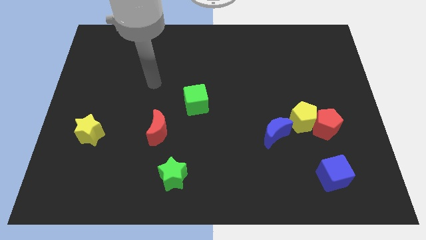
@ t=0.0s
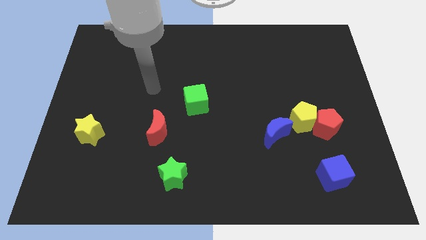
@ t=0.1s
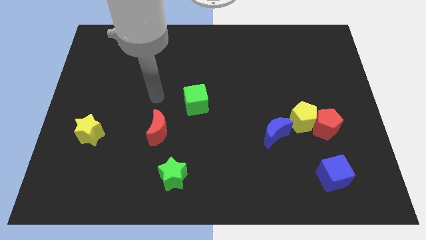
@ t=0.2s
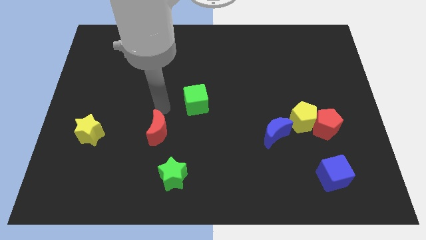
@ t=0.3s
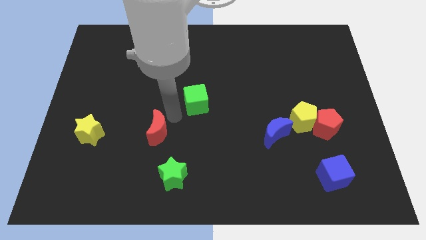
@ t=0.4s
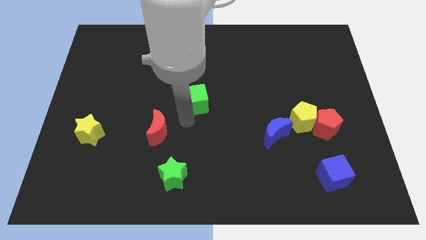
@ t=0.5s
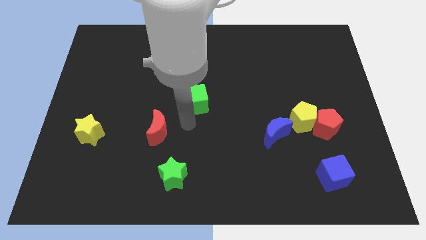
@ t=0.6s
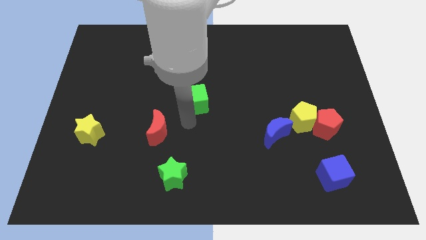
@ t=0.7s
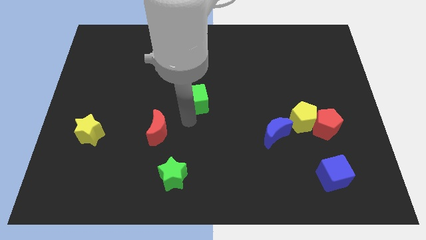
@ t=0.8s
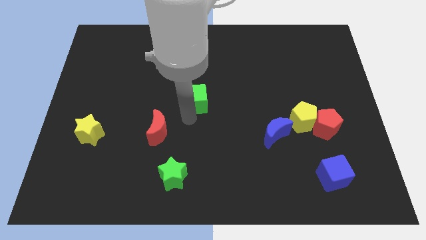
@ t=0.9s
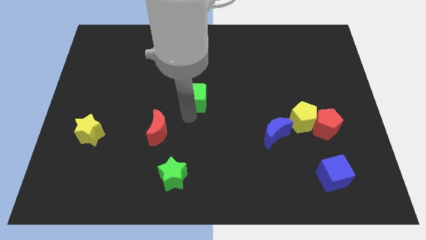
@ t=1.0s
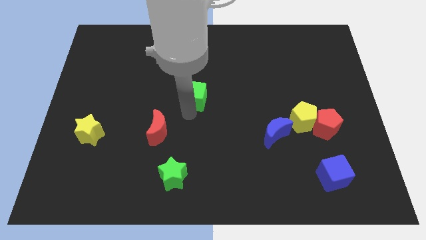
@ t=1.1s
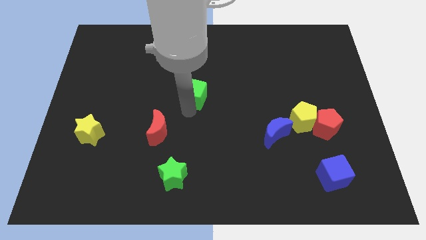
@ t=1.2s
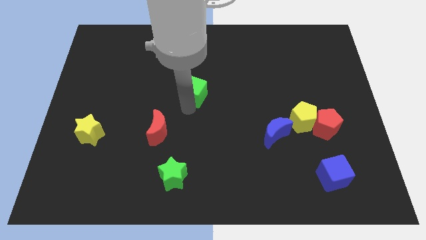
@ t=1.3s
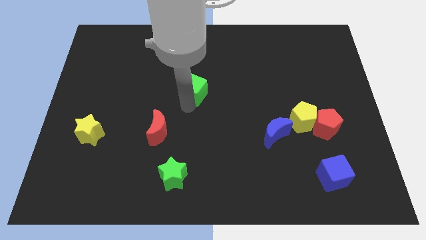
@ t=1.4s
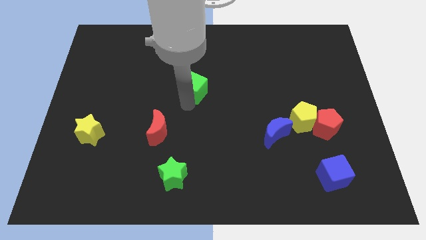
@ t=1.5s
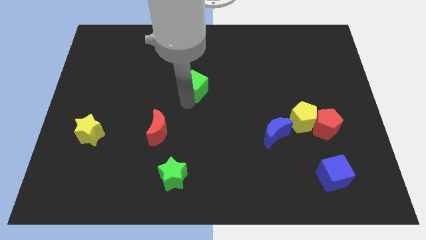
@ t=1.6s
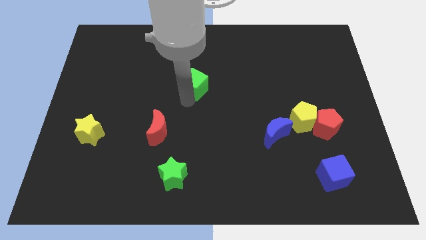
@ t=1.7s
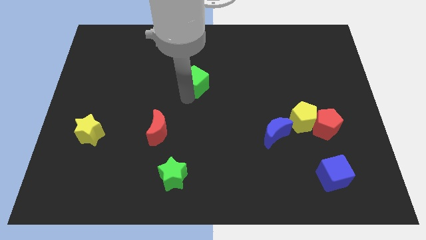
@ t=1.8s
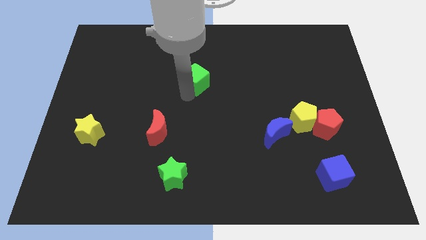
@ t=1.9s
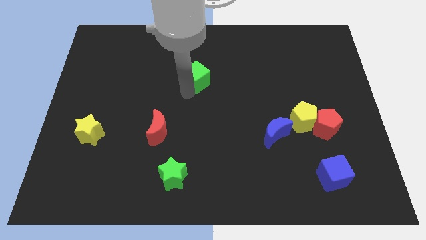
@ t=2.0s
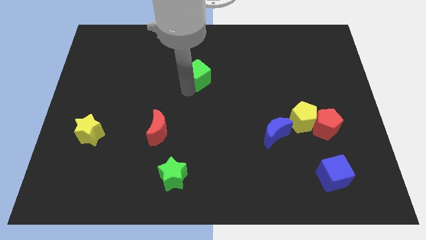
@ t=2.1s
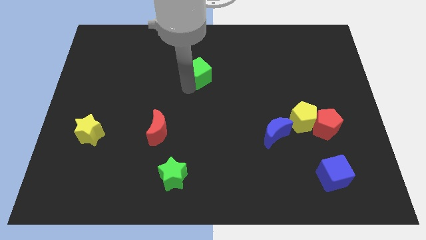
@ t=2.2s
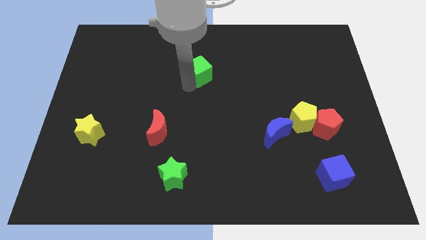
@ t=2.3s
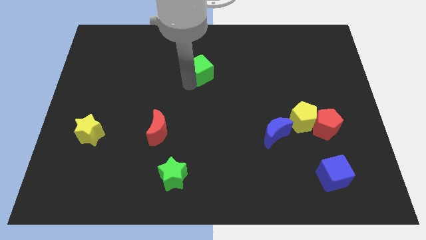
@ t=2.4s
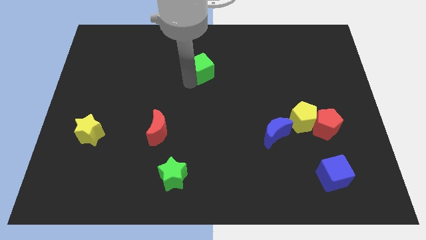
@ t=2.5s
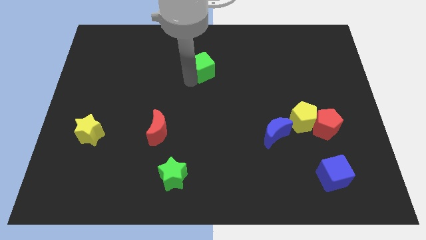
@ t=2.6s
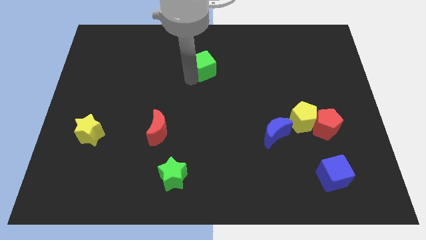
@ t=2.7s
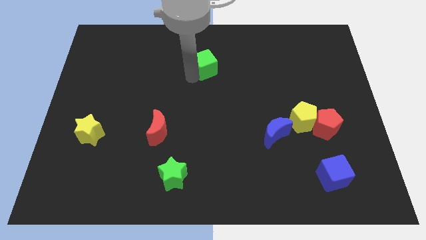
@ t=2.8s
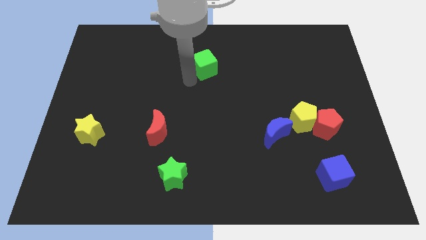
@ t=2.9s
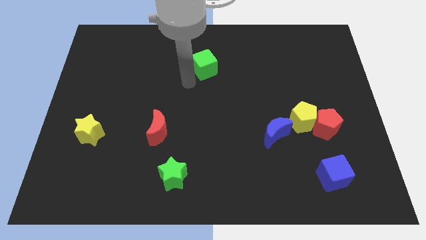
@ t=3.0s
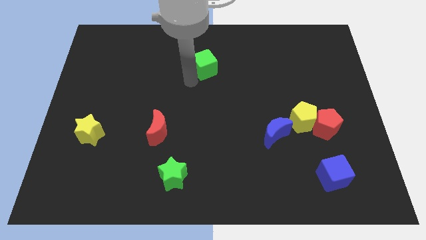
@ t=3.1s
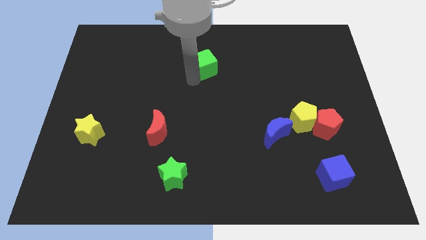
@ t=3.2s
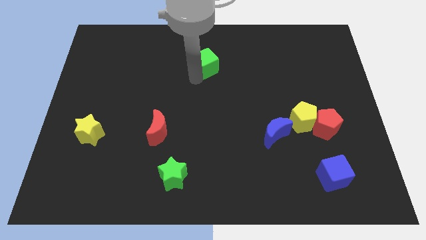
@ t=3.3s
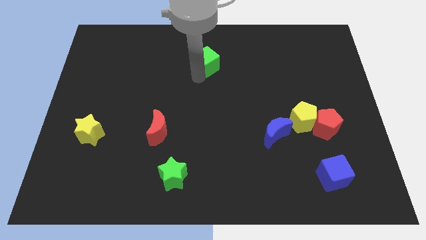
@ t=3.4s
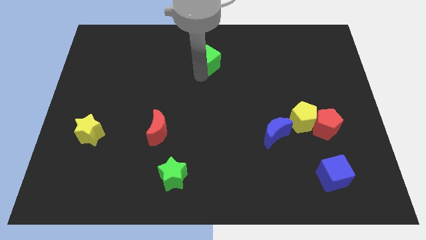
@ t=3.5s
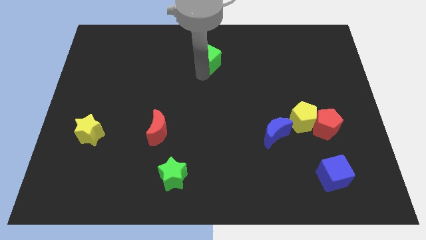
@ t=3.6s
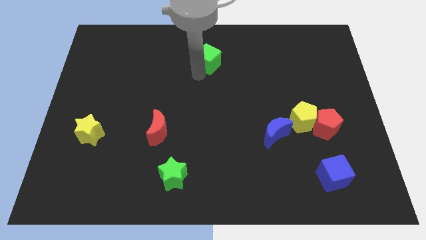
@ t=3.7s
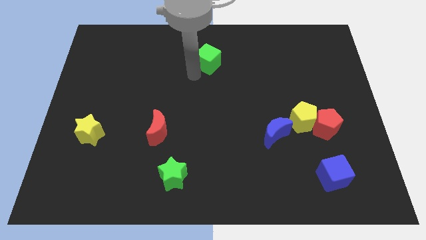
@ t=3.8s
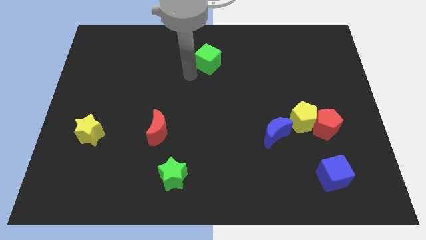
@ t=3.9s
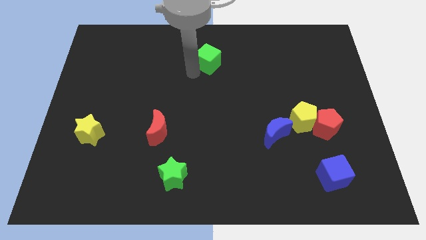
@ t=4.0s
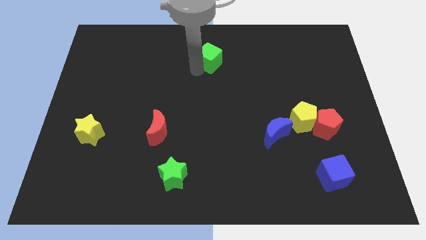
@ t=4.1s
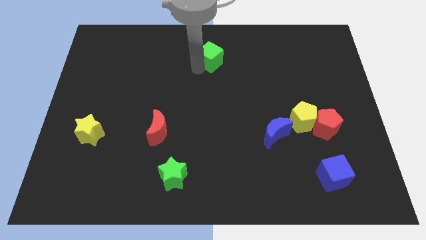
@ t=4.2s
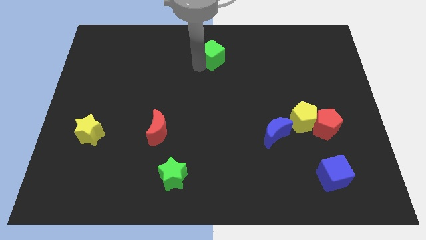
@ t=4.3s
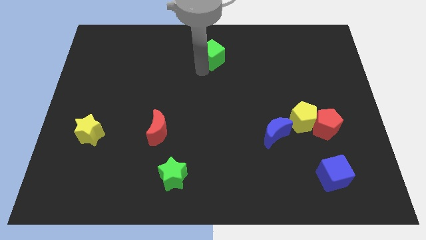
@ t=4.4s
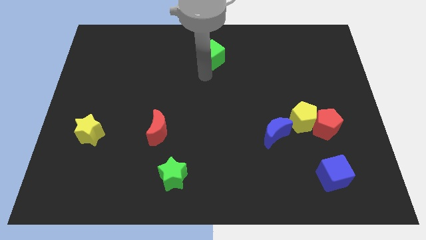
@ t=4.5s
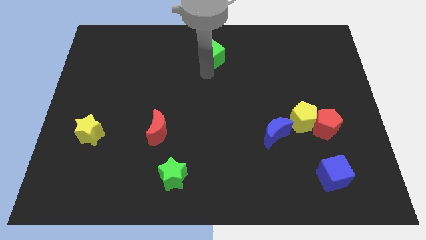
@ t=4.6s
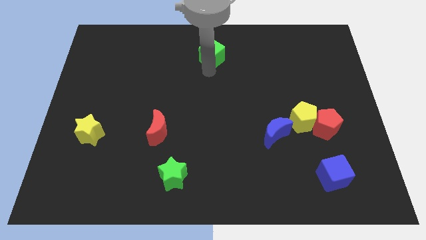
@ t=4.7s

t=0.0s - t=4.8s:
push the green cube to the top side

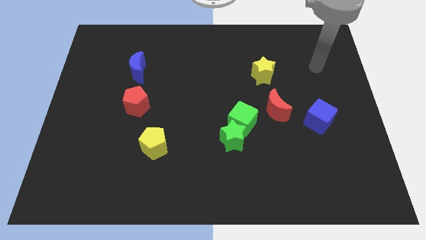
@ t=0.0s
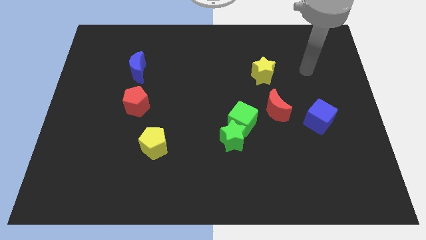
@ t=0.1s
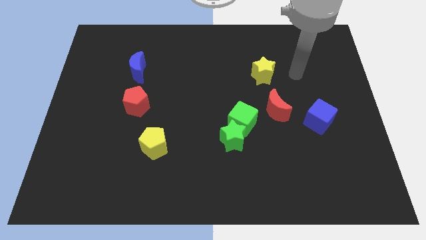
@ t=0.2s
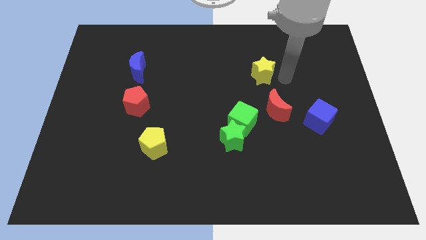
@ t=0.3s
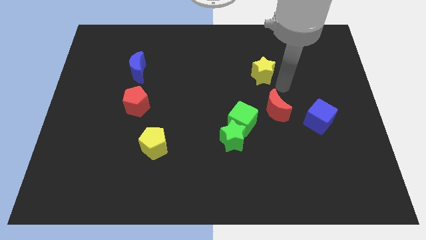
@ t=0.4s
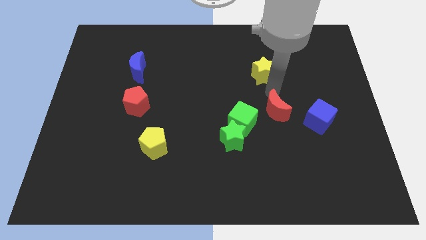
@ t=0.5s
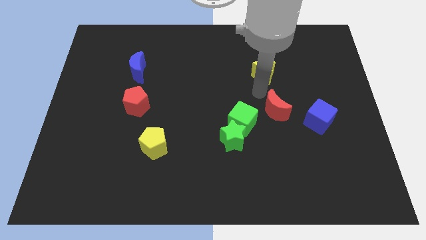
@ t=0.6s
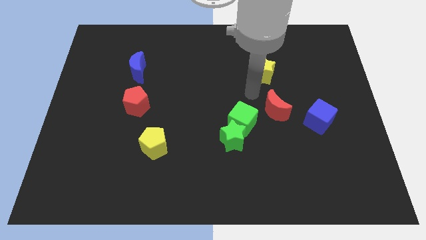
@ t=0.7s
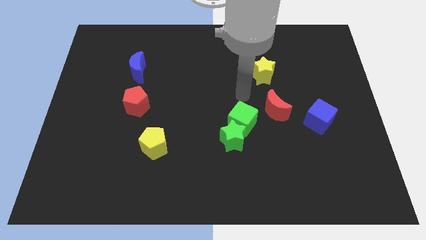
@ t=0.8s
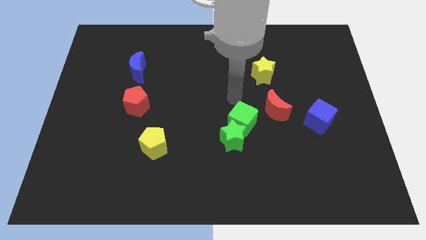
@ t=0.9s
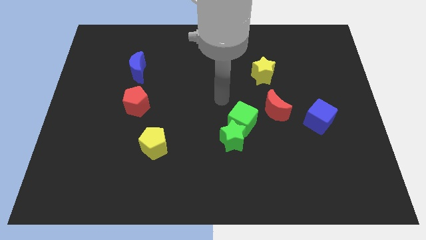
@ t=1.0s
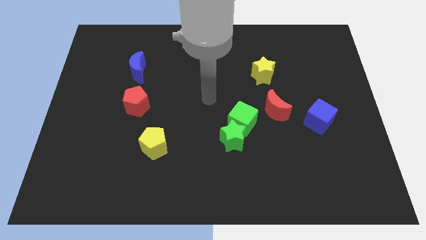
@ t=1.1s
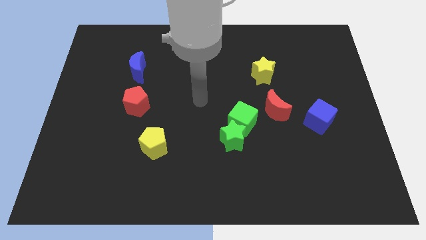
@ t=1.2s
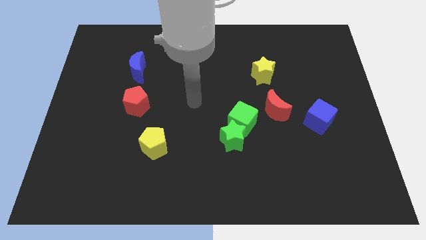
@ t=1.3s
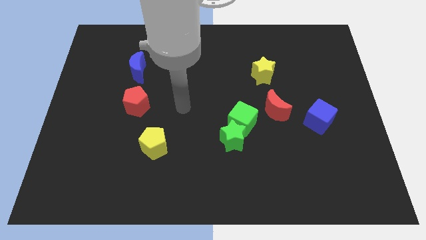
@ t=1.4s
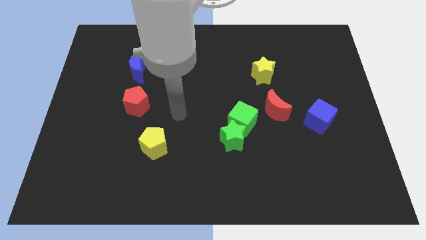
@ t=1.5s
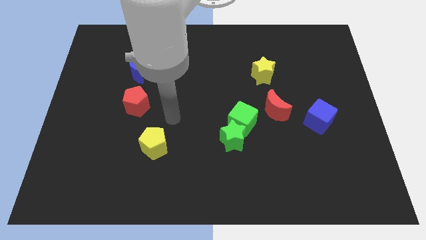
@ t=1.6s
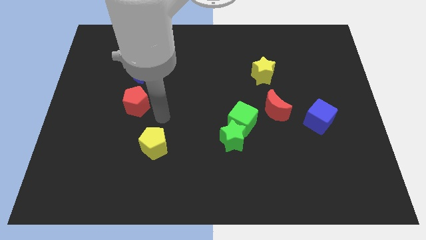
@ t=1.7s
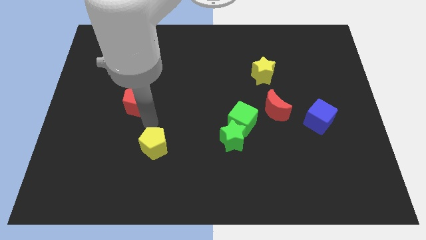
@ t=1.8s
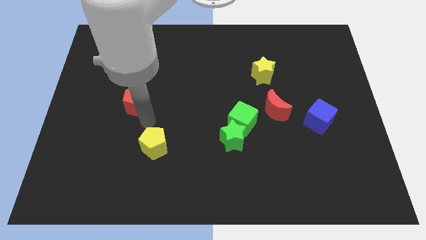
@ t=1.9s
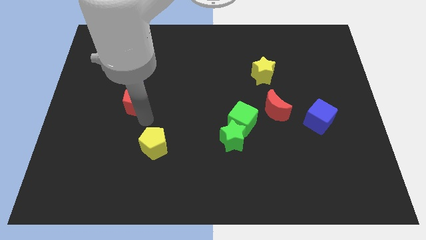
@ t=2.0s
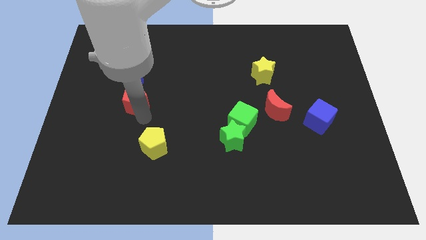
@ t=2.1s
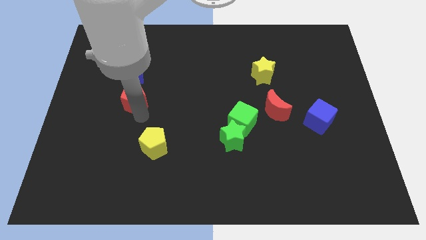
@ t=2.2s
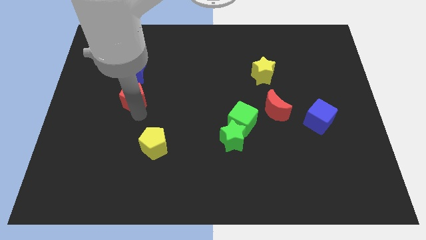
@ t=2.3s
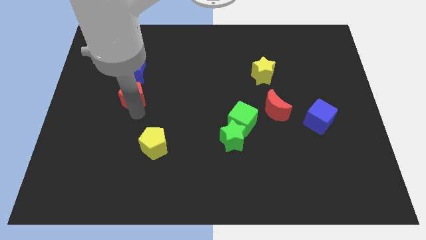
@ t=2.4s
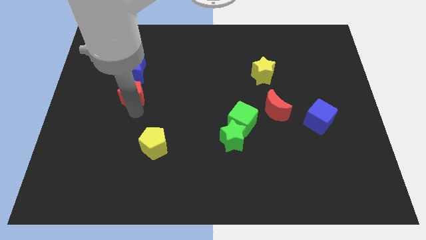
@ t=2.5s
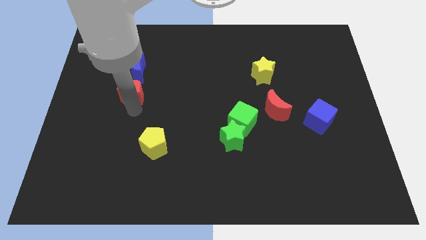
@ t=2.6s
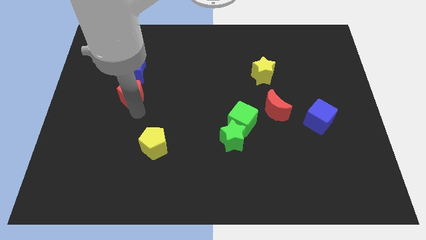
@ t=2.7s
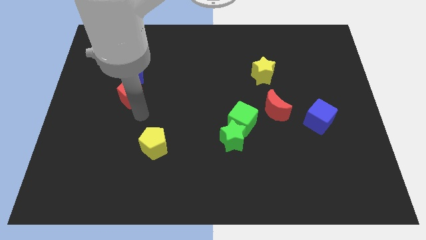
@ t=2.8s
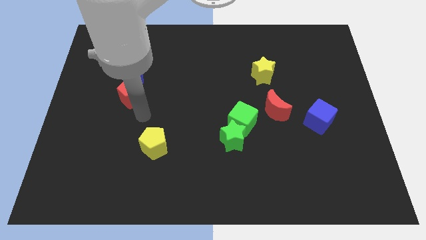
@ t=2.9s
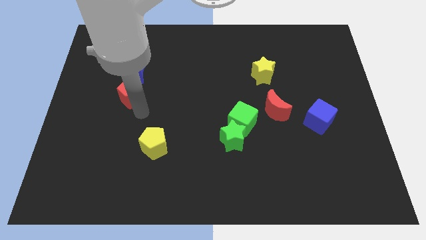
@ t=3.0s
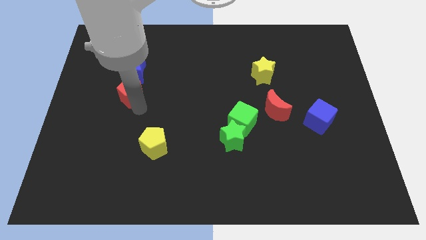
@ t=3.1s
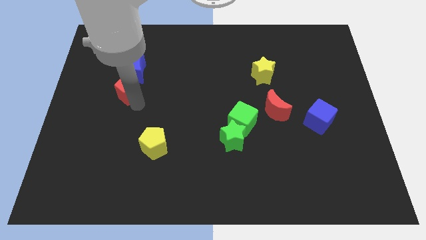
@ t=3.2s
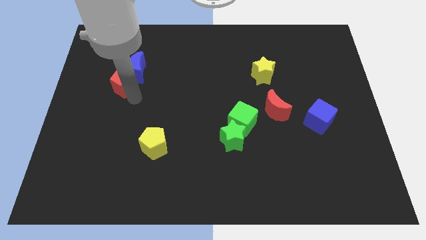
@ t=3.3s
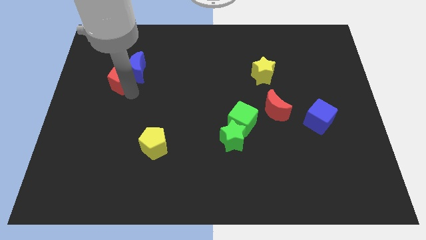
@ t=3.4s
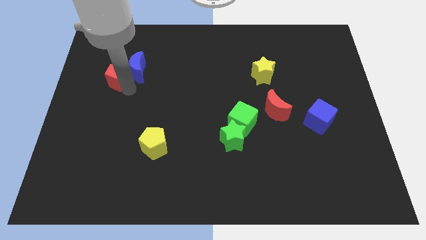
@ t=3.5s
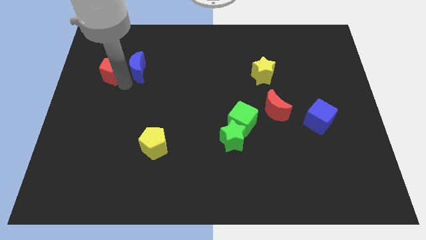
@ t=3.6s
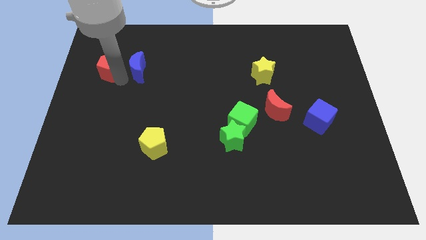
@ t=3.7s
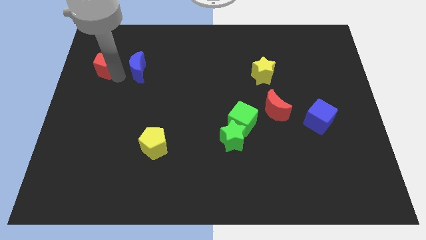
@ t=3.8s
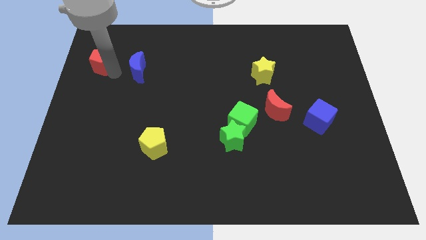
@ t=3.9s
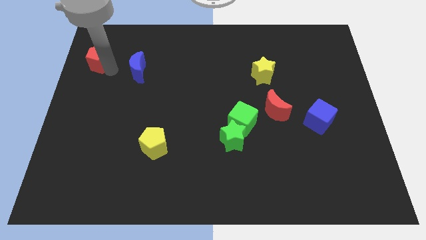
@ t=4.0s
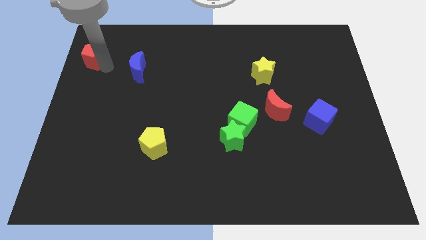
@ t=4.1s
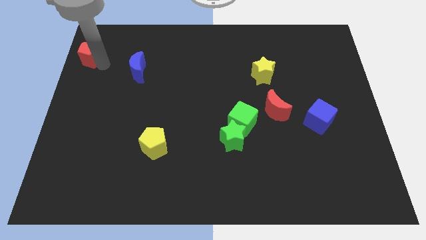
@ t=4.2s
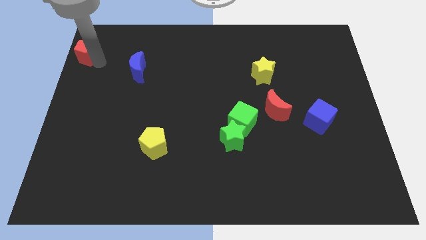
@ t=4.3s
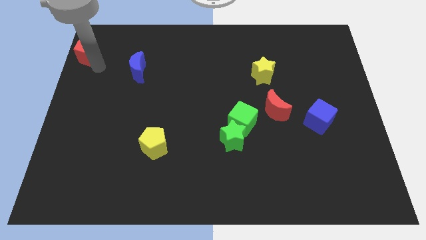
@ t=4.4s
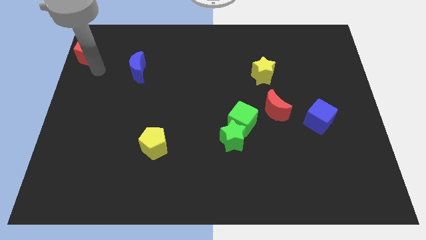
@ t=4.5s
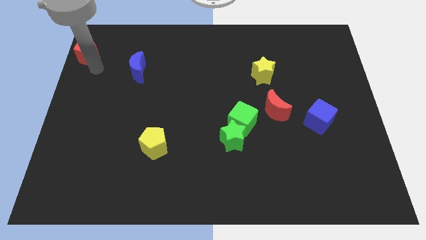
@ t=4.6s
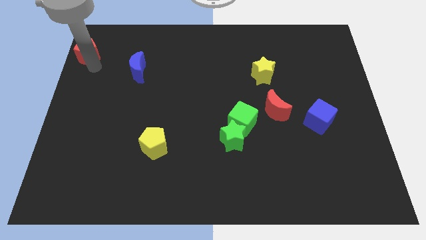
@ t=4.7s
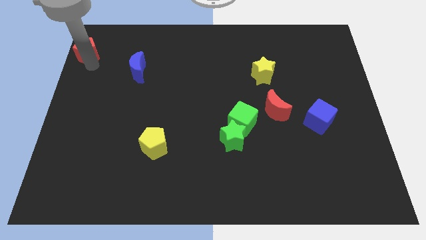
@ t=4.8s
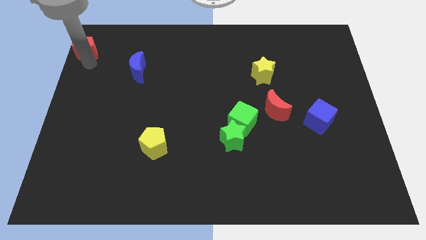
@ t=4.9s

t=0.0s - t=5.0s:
put the red pentagon to the top left corner
